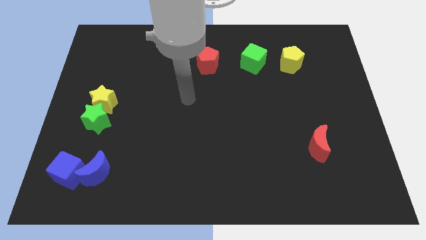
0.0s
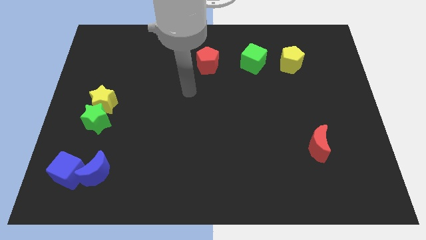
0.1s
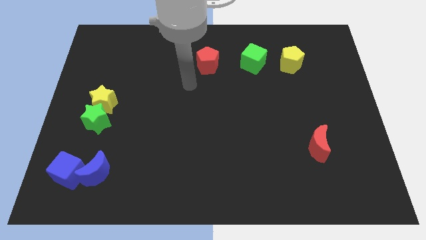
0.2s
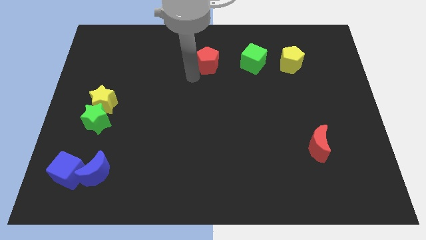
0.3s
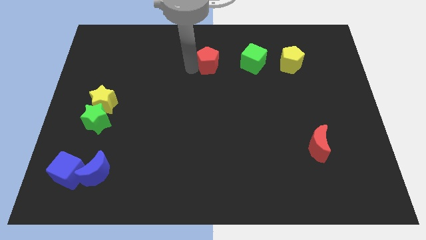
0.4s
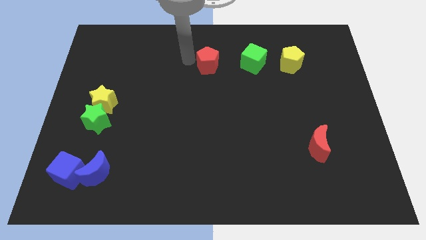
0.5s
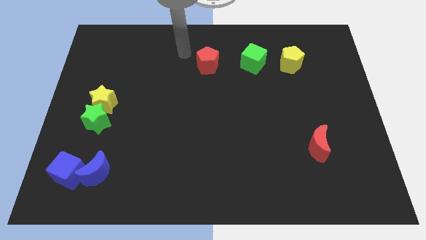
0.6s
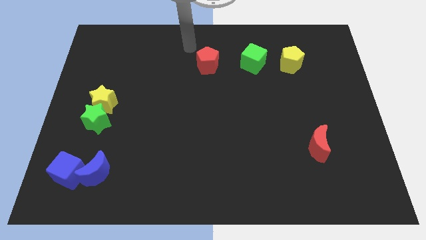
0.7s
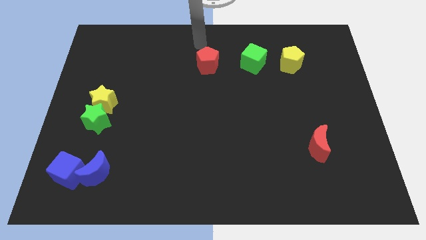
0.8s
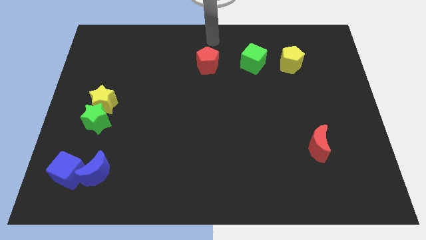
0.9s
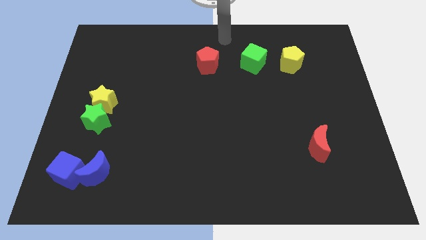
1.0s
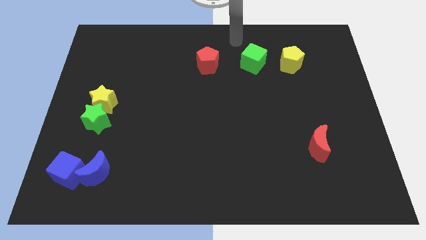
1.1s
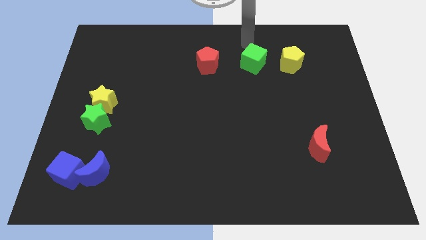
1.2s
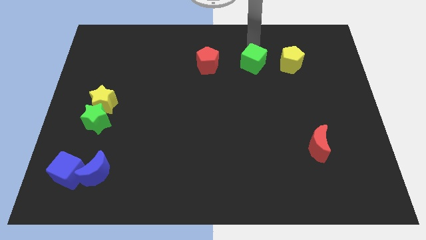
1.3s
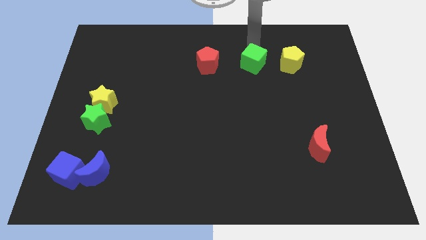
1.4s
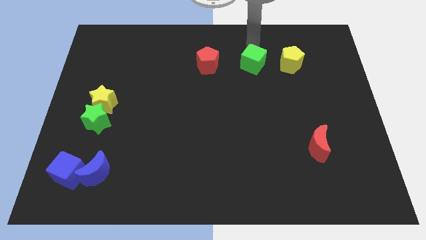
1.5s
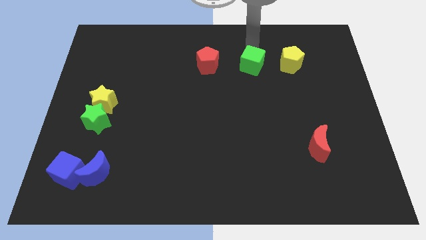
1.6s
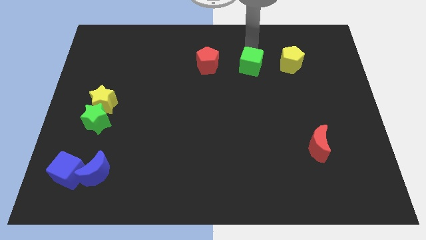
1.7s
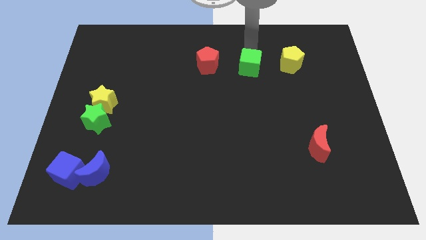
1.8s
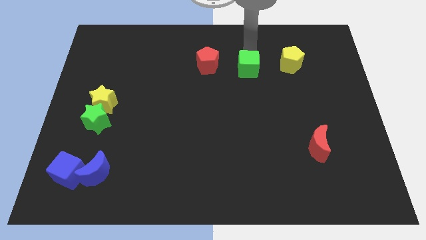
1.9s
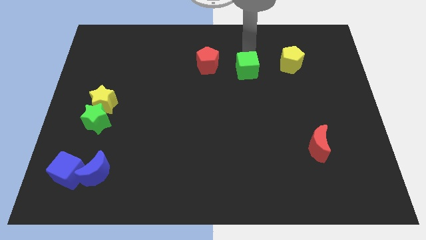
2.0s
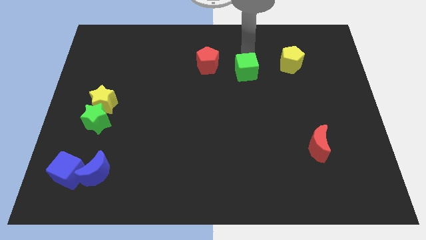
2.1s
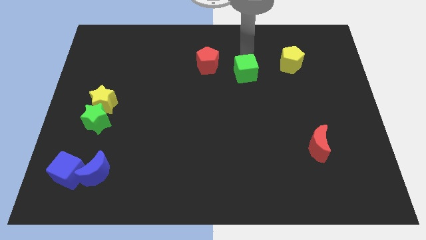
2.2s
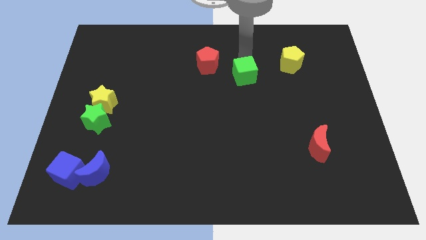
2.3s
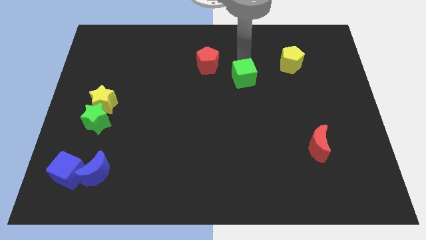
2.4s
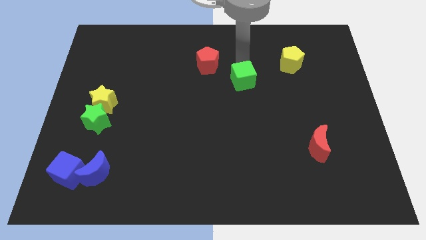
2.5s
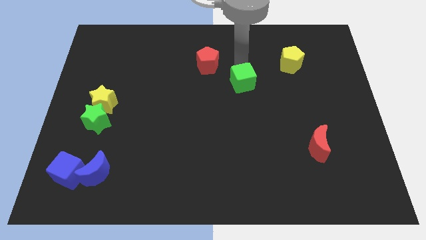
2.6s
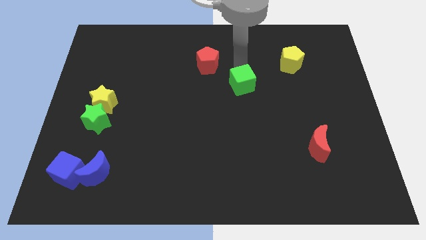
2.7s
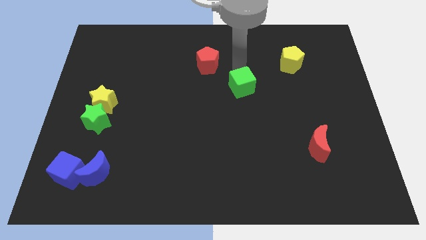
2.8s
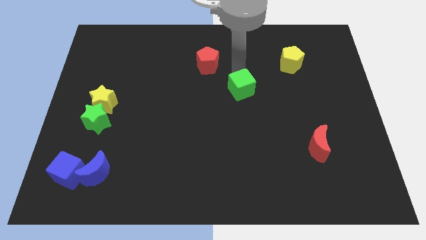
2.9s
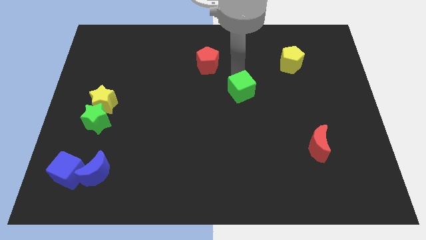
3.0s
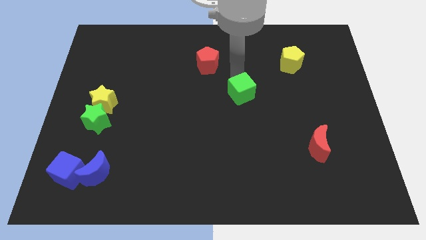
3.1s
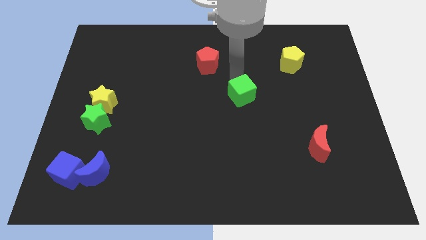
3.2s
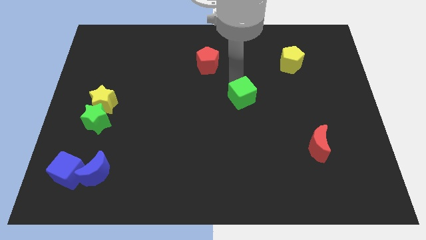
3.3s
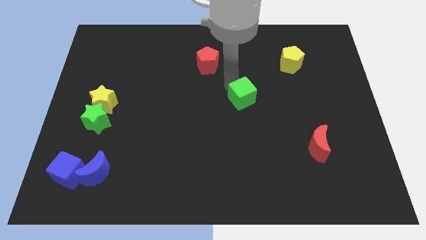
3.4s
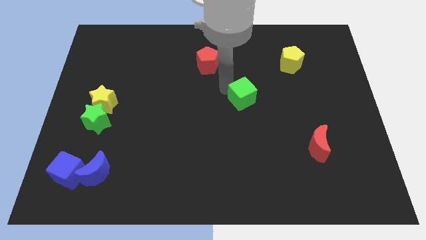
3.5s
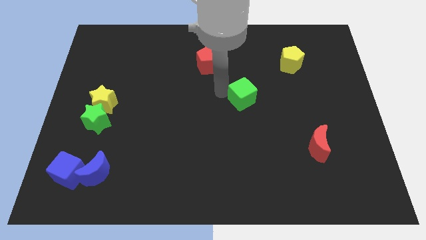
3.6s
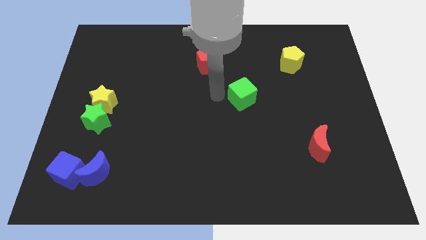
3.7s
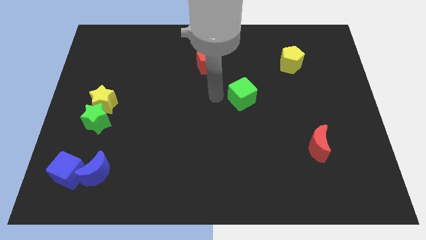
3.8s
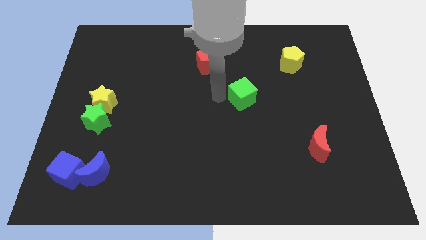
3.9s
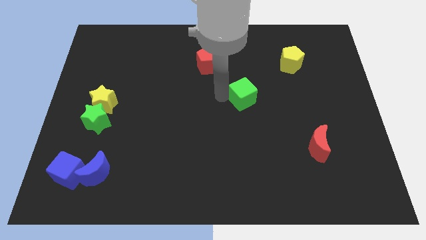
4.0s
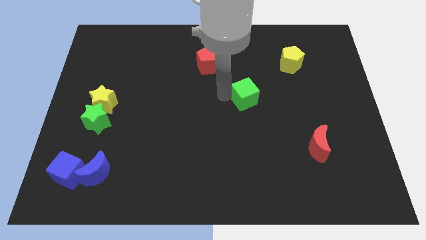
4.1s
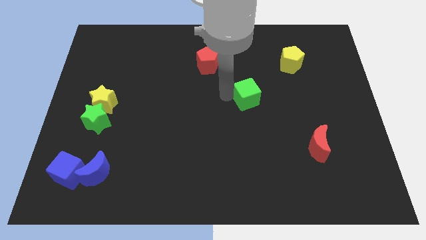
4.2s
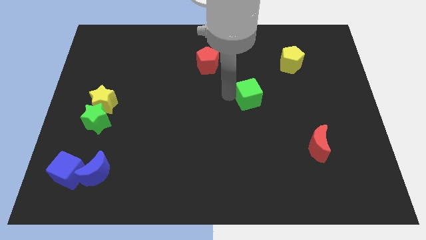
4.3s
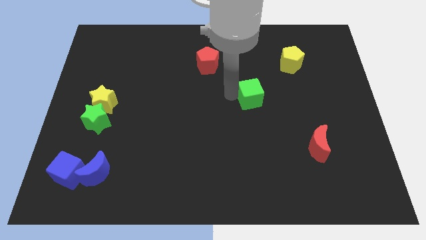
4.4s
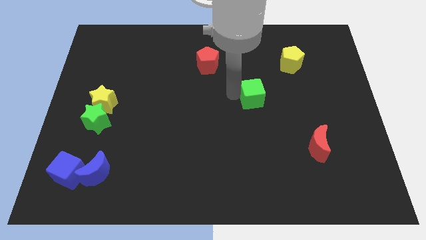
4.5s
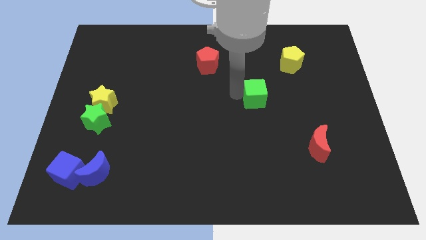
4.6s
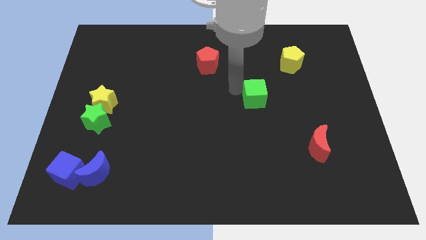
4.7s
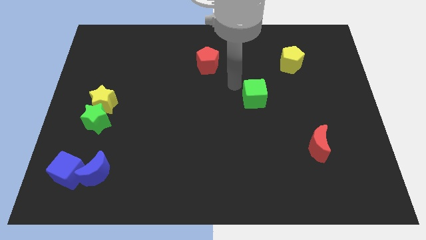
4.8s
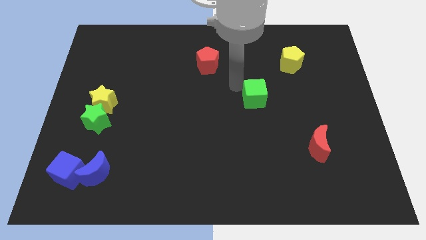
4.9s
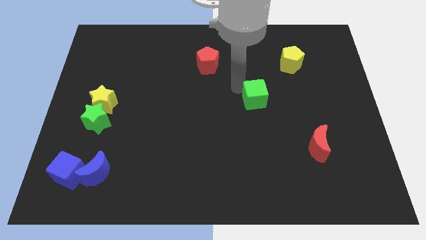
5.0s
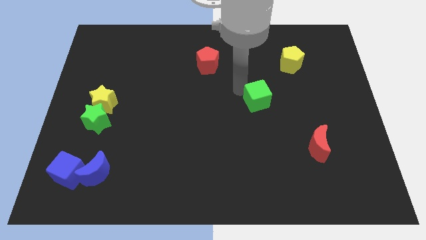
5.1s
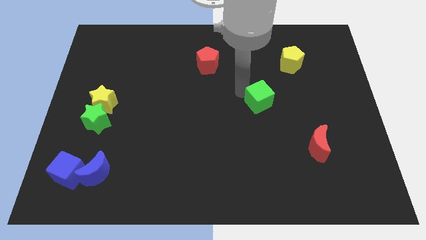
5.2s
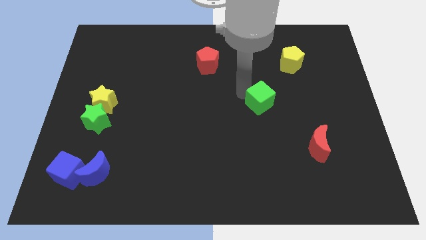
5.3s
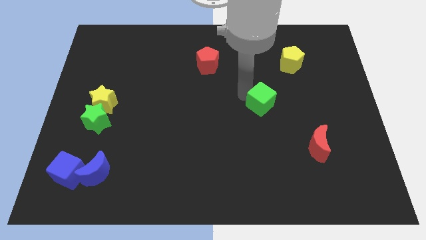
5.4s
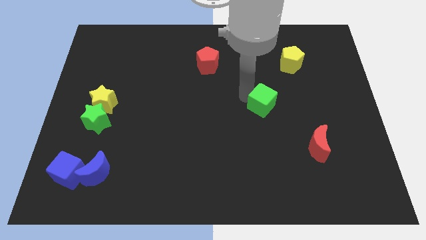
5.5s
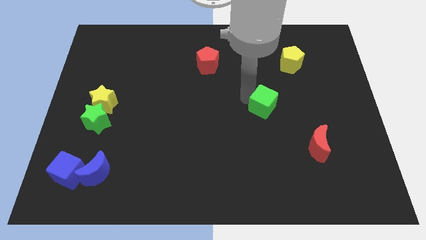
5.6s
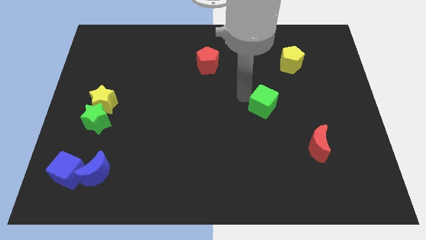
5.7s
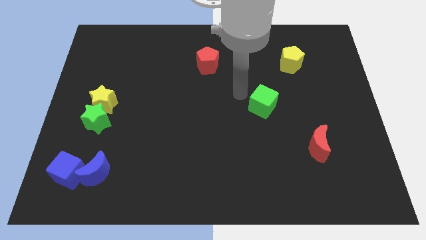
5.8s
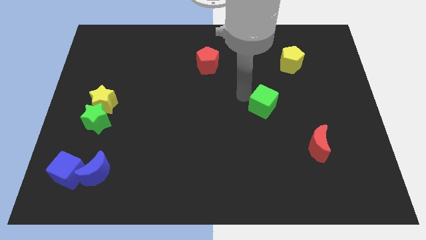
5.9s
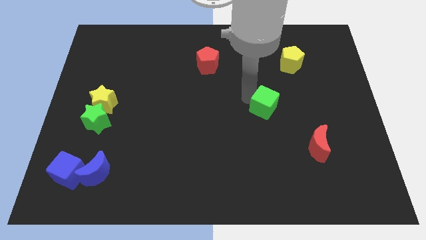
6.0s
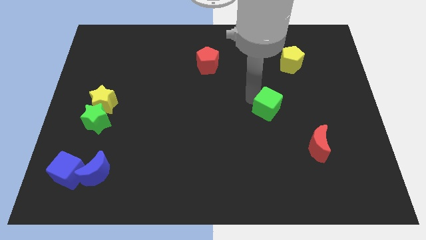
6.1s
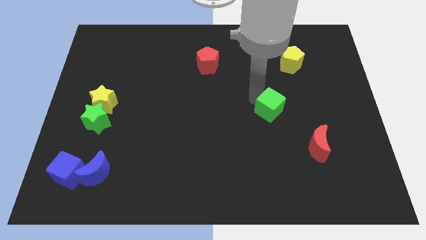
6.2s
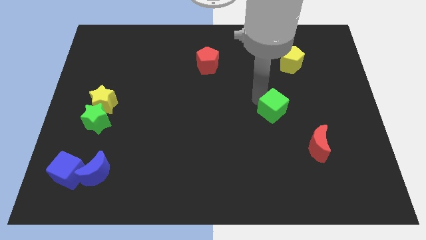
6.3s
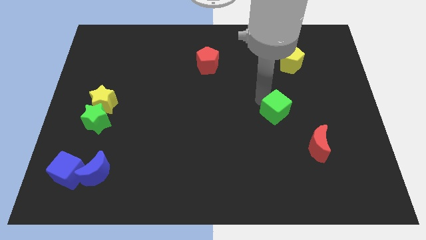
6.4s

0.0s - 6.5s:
slide the green cube to the top left side of the red moon

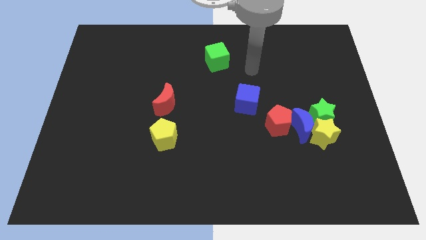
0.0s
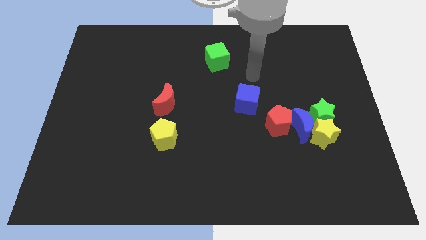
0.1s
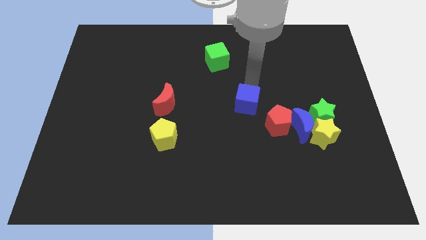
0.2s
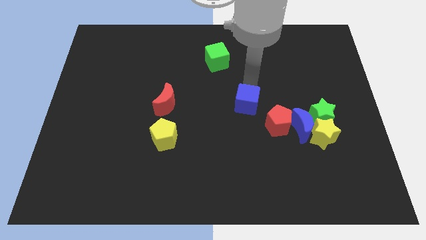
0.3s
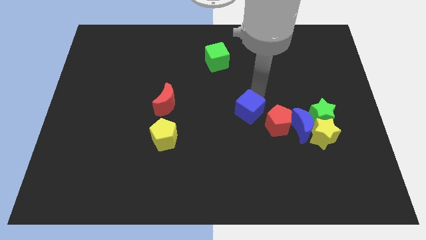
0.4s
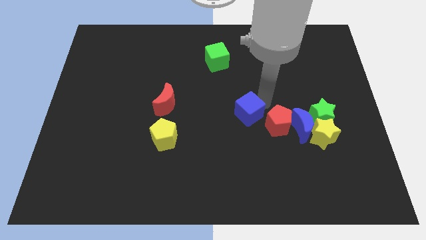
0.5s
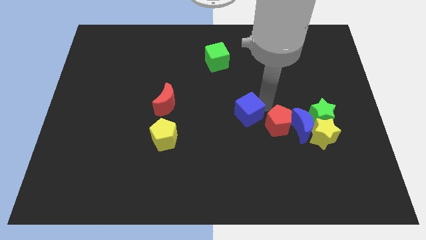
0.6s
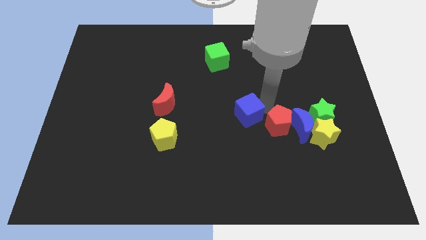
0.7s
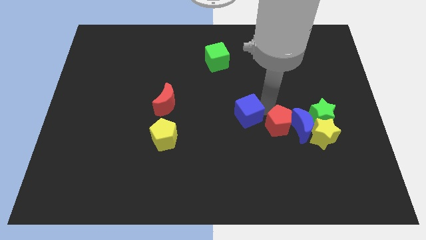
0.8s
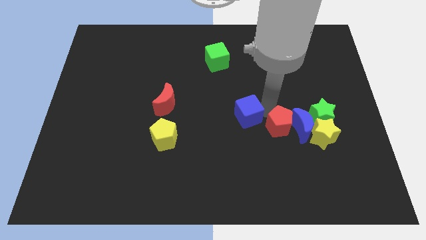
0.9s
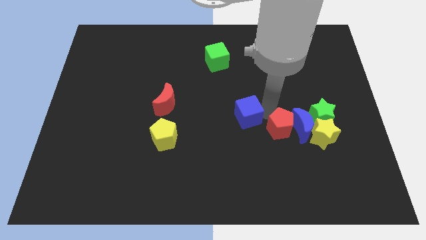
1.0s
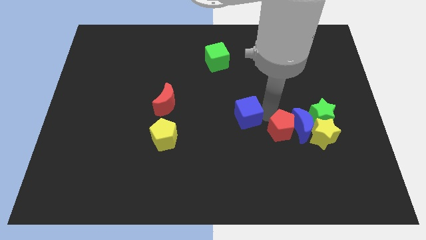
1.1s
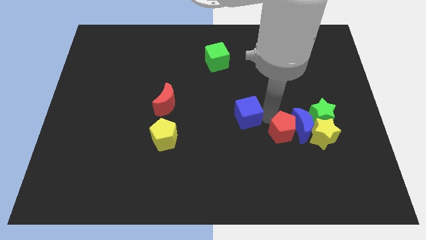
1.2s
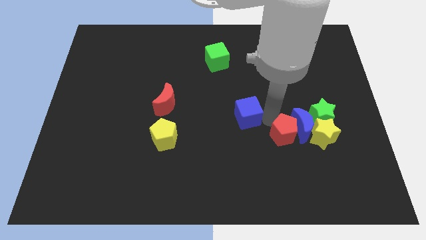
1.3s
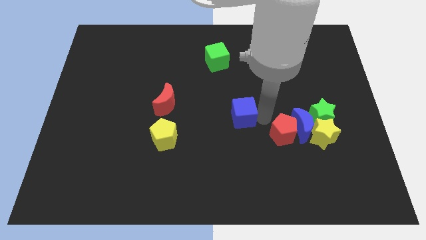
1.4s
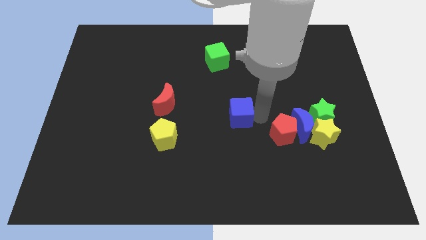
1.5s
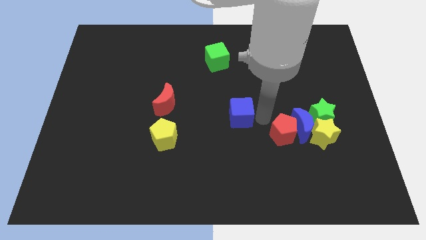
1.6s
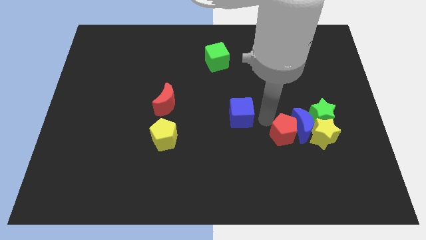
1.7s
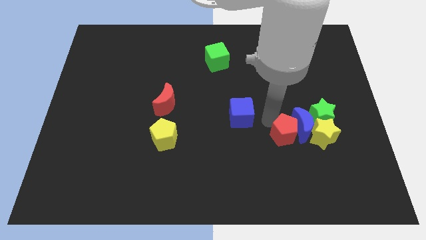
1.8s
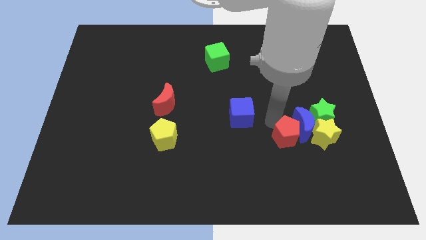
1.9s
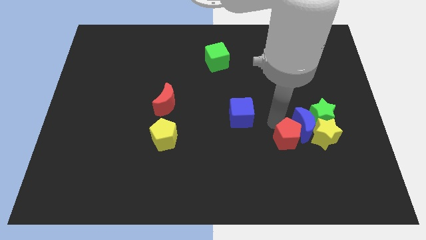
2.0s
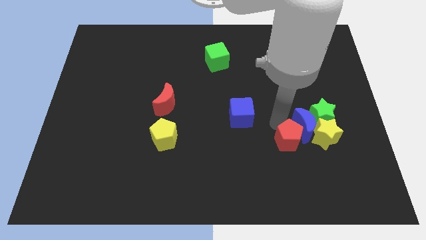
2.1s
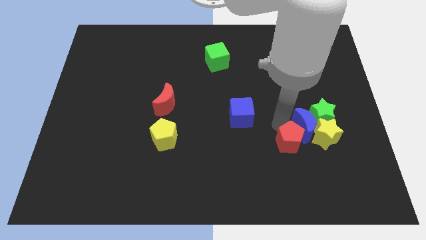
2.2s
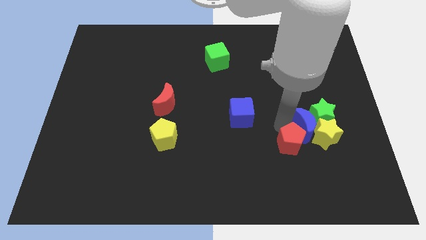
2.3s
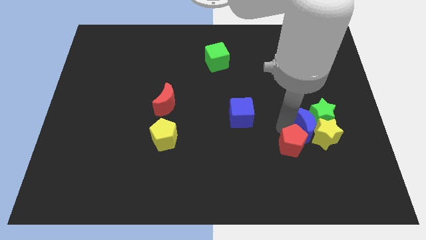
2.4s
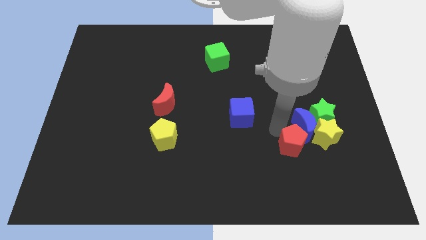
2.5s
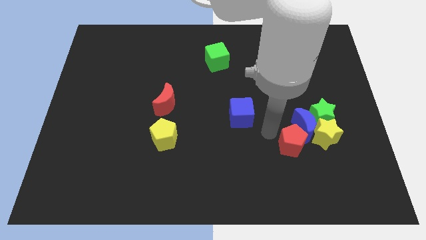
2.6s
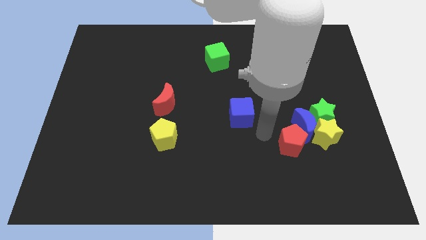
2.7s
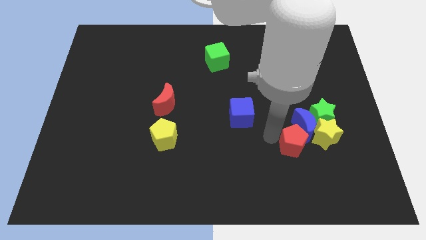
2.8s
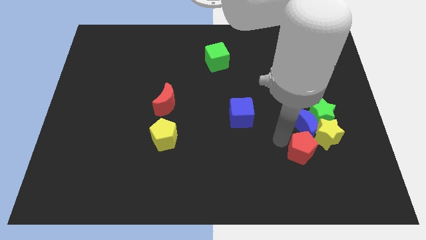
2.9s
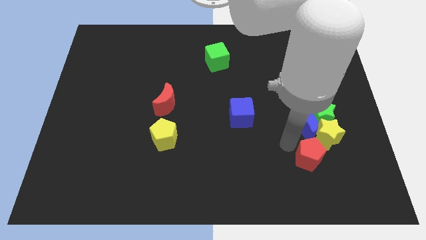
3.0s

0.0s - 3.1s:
slide the red pentagon to the bottom side of the green star
